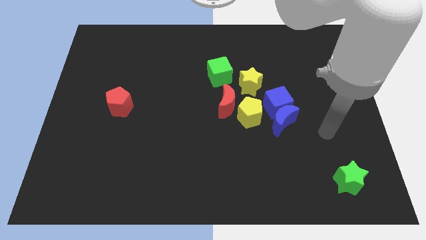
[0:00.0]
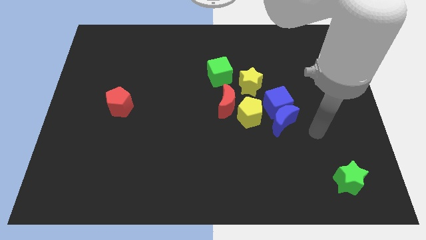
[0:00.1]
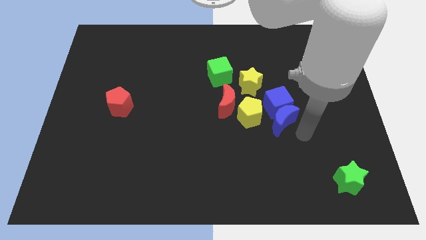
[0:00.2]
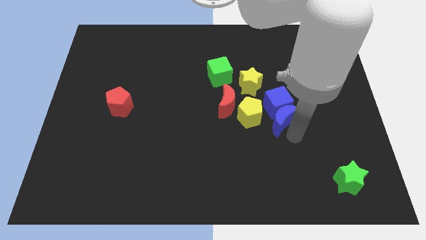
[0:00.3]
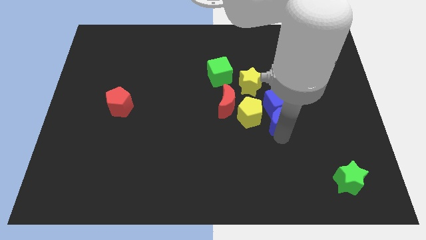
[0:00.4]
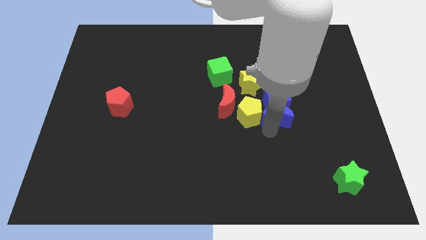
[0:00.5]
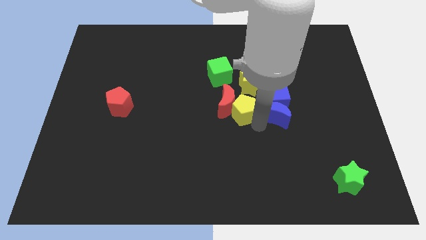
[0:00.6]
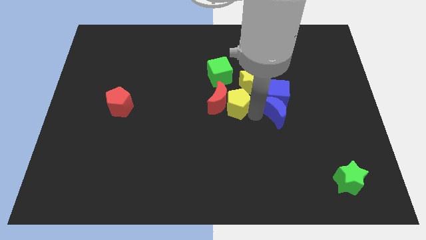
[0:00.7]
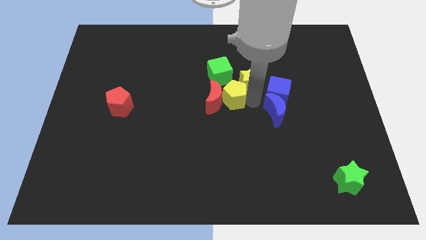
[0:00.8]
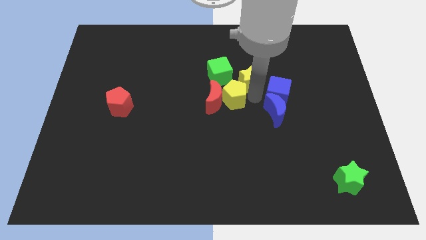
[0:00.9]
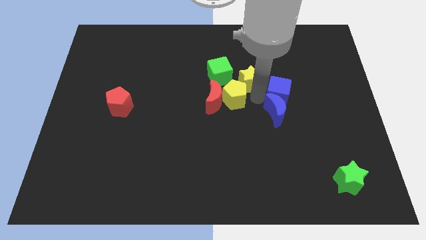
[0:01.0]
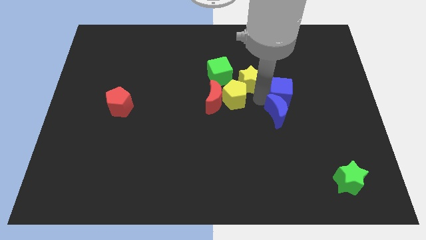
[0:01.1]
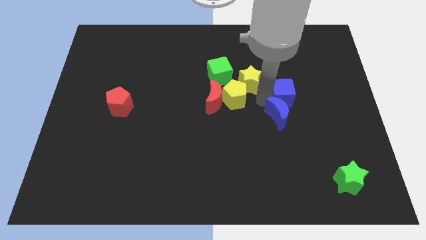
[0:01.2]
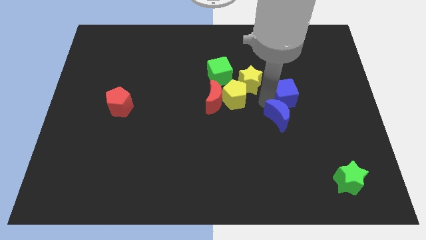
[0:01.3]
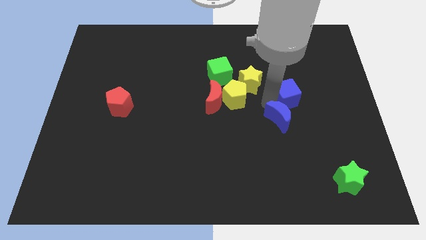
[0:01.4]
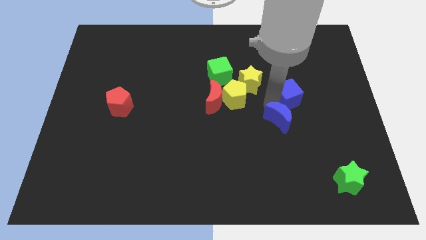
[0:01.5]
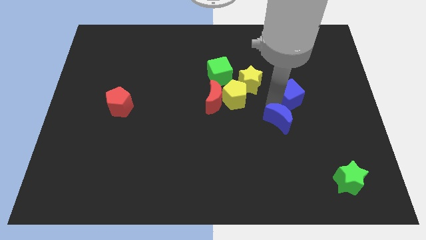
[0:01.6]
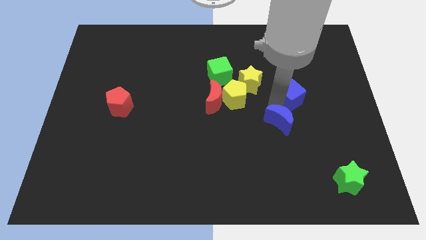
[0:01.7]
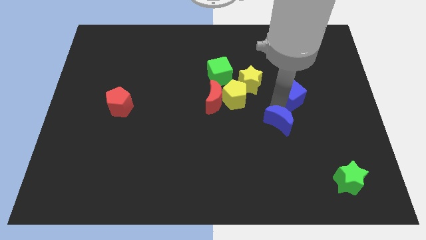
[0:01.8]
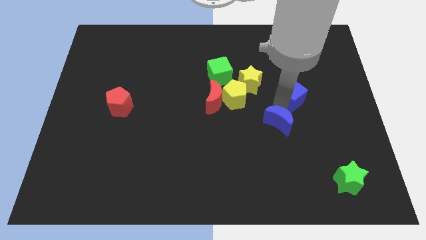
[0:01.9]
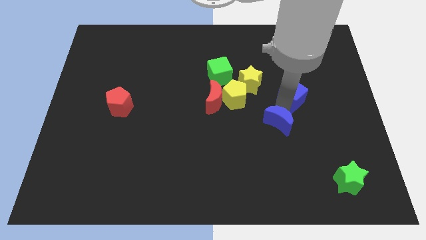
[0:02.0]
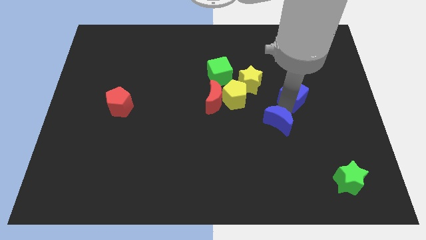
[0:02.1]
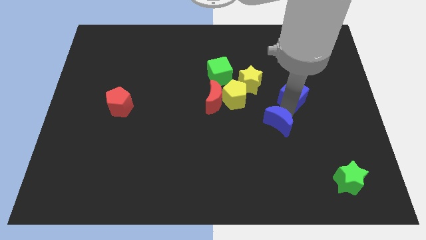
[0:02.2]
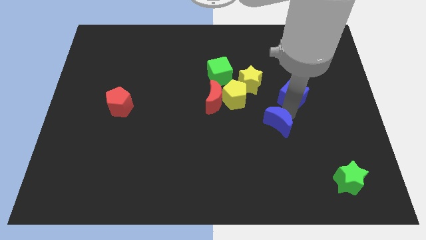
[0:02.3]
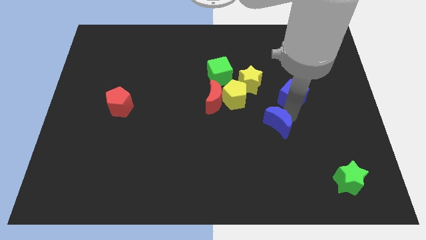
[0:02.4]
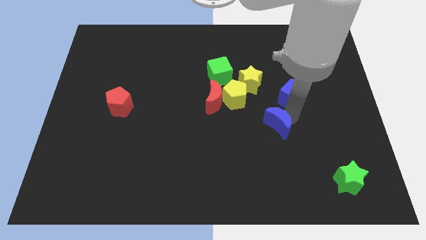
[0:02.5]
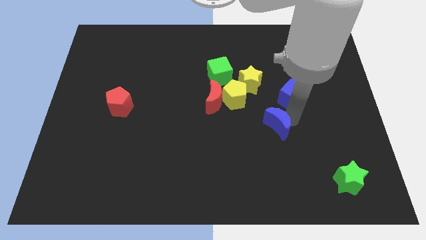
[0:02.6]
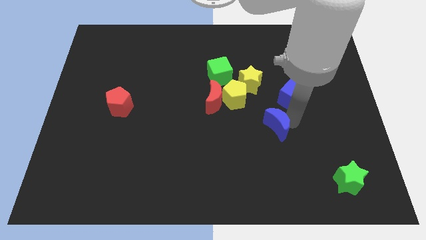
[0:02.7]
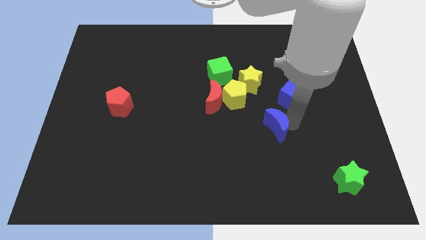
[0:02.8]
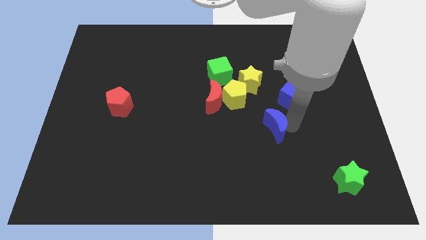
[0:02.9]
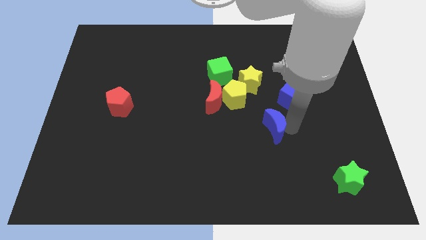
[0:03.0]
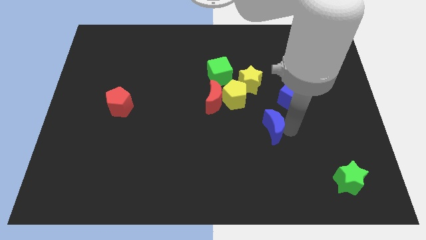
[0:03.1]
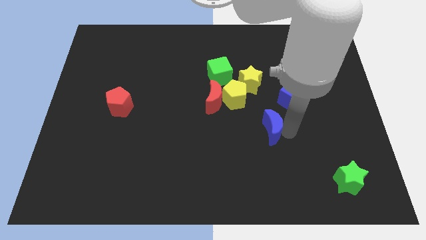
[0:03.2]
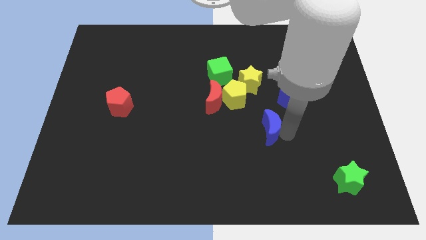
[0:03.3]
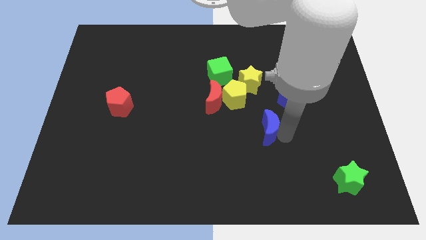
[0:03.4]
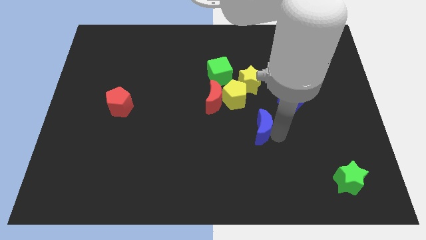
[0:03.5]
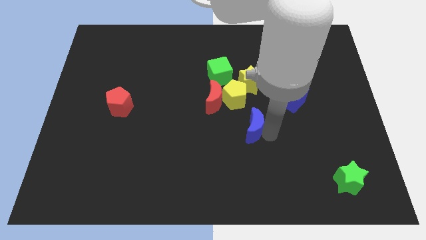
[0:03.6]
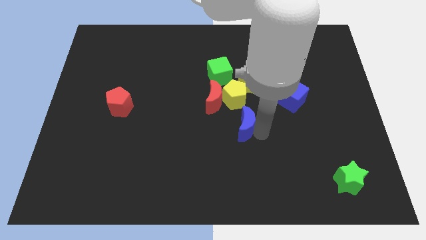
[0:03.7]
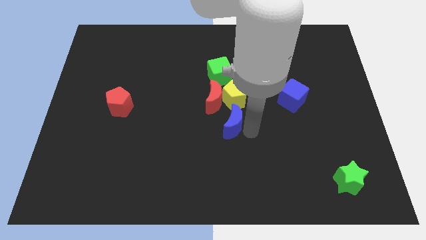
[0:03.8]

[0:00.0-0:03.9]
separate the blue moon from the blue cube and yellow pentagon

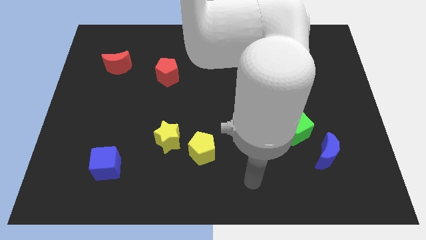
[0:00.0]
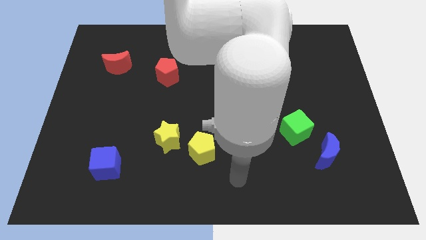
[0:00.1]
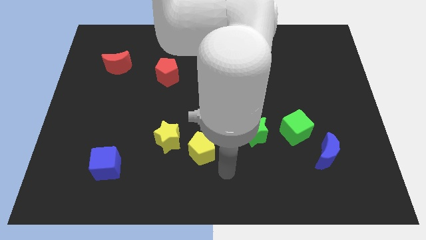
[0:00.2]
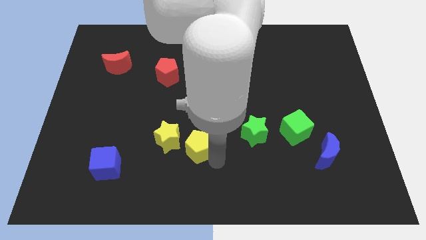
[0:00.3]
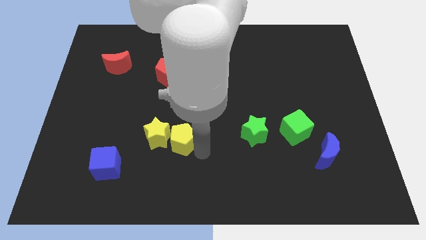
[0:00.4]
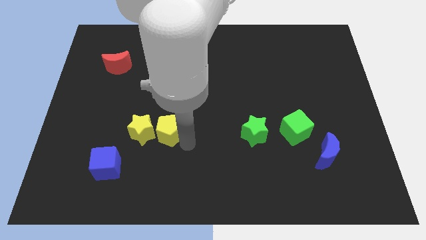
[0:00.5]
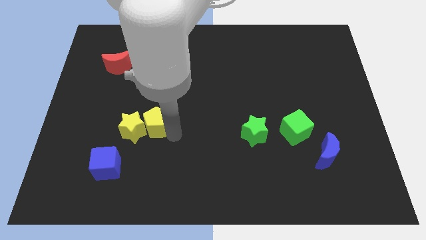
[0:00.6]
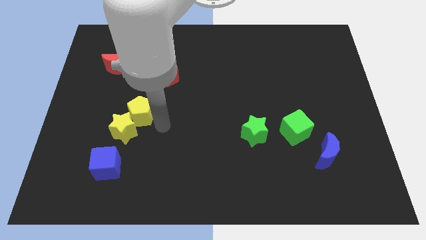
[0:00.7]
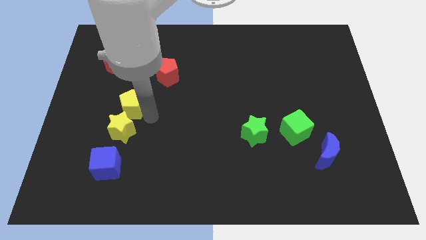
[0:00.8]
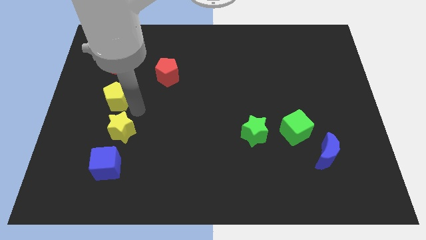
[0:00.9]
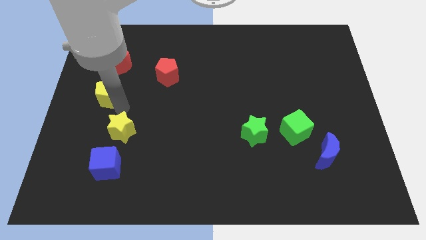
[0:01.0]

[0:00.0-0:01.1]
separate the yellow star from the yellow pentagon

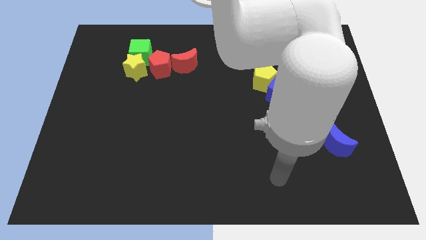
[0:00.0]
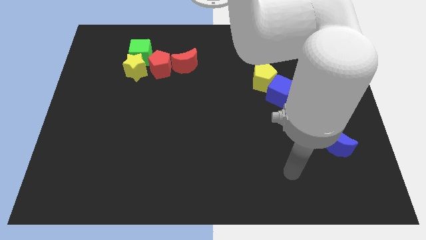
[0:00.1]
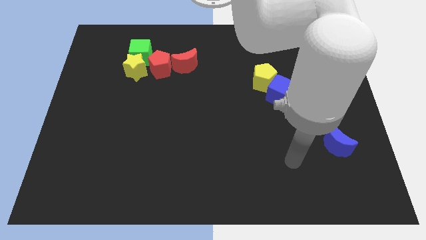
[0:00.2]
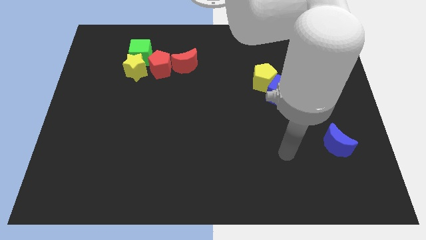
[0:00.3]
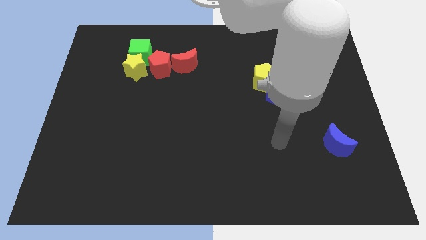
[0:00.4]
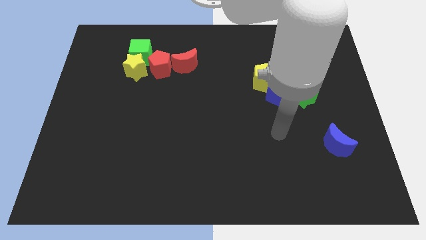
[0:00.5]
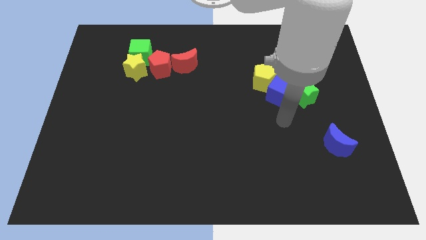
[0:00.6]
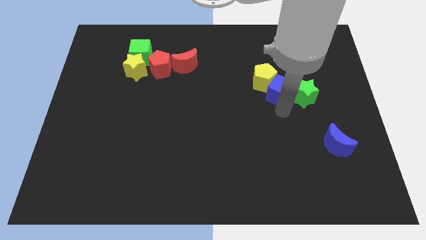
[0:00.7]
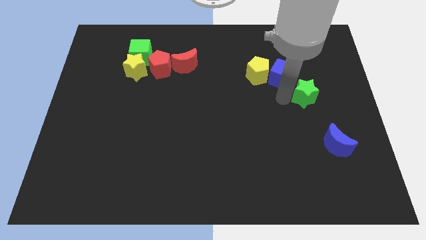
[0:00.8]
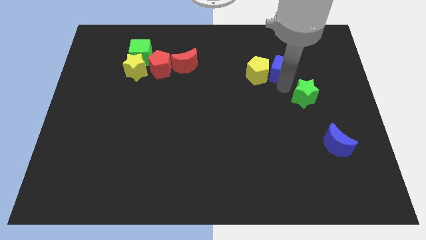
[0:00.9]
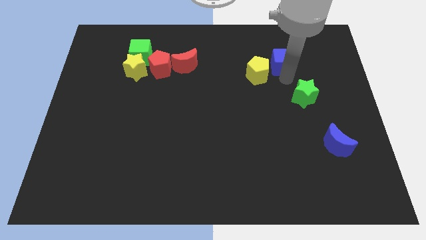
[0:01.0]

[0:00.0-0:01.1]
move the green star away from the blue cube

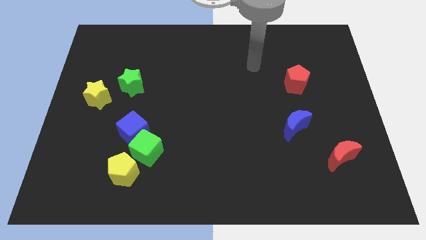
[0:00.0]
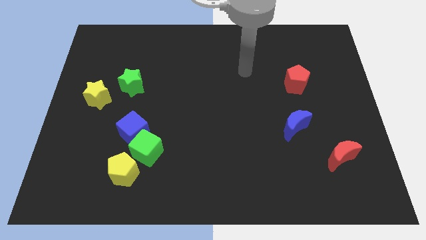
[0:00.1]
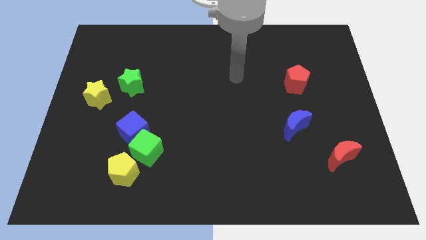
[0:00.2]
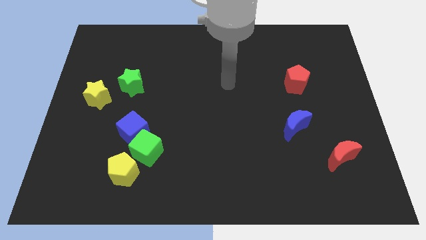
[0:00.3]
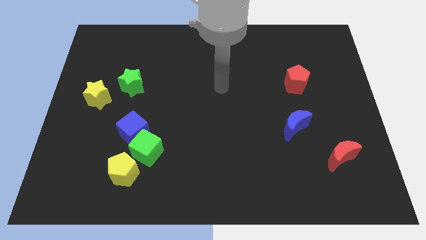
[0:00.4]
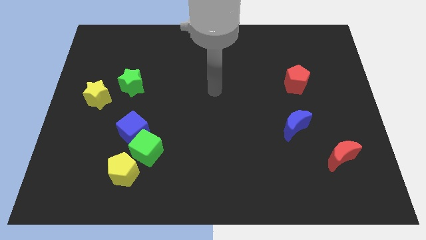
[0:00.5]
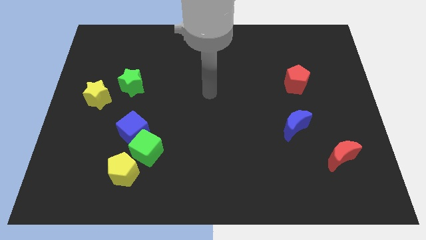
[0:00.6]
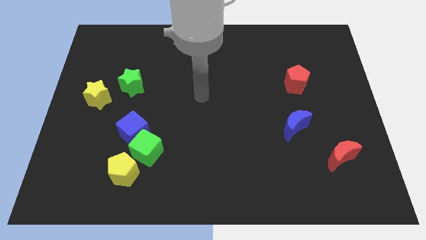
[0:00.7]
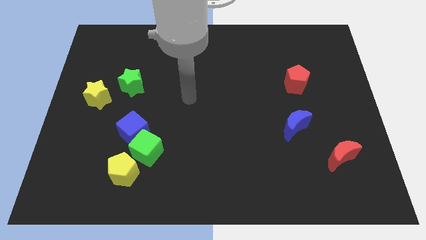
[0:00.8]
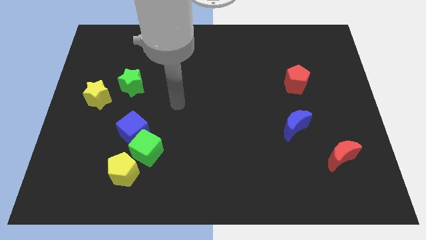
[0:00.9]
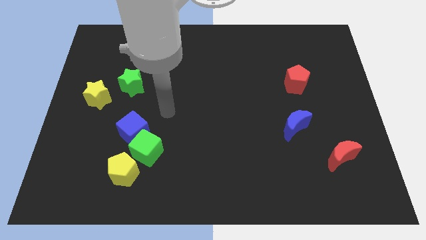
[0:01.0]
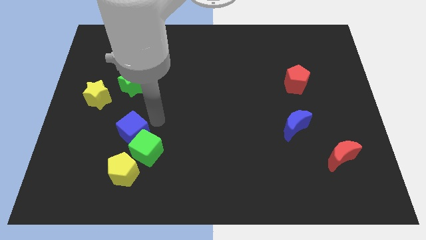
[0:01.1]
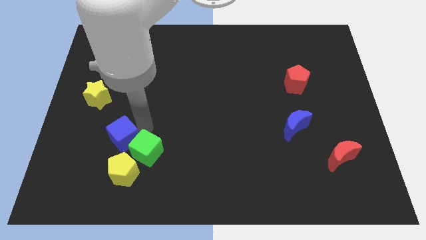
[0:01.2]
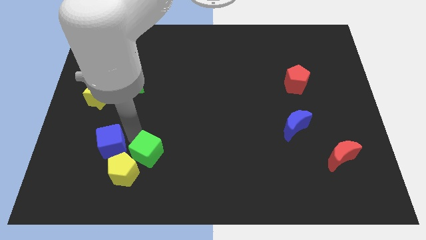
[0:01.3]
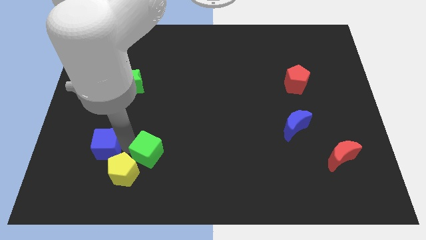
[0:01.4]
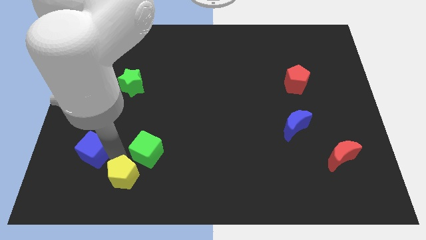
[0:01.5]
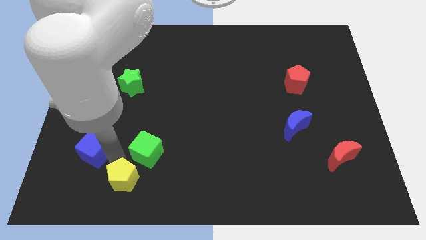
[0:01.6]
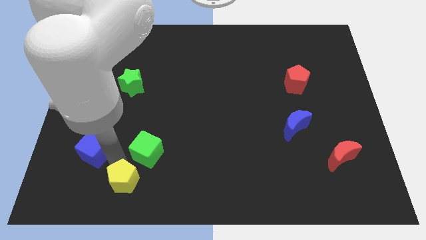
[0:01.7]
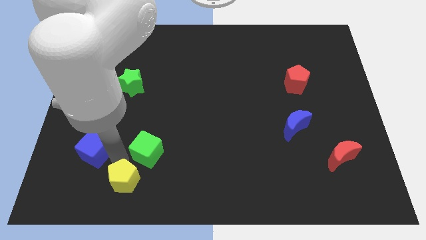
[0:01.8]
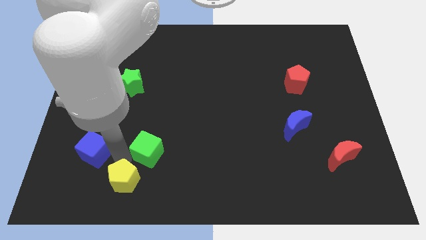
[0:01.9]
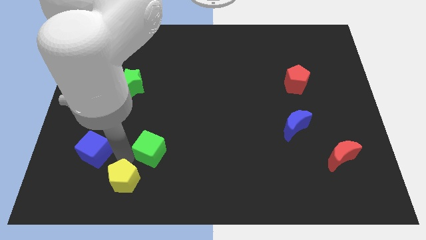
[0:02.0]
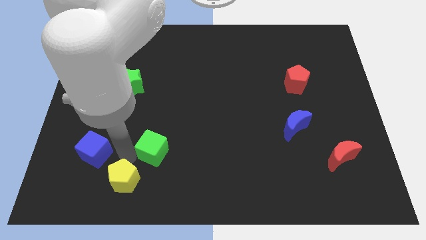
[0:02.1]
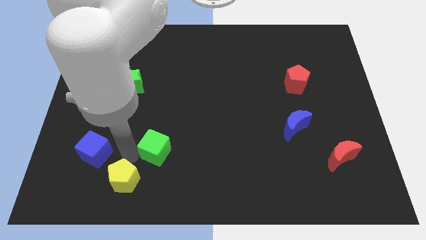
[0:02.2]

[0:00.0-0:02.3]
separate the green cube from the blue cube and yellow pentagon

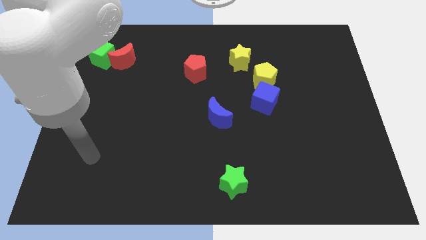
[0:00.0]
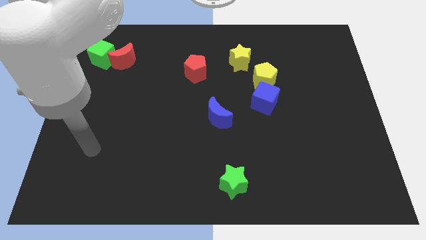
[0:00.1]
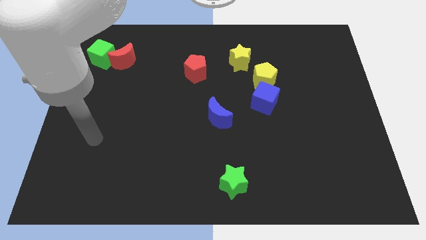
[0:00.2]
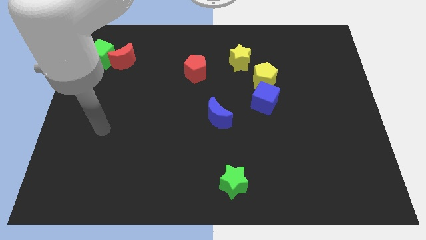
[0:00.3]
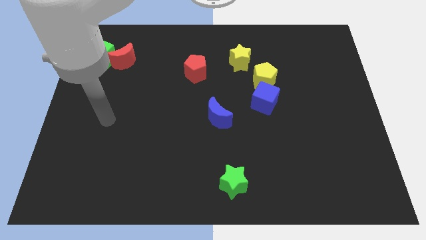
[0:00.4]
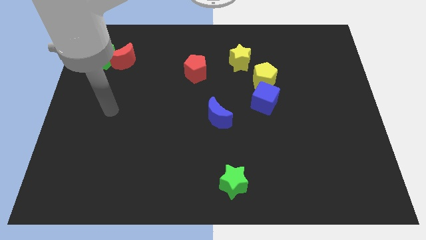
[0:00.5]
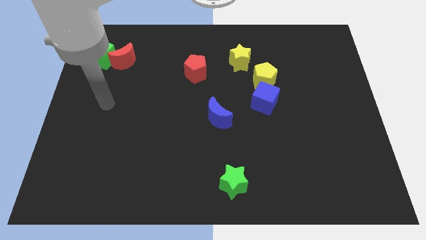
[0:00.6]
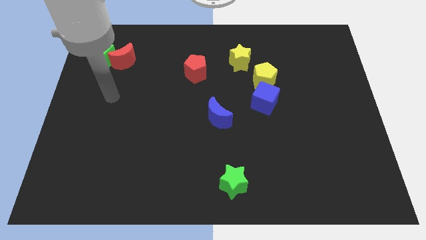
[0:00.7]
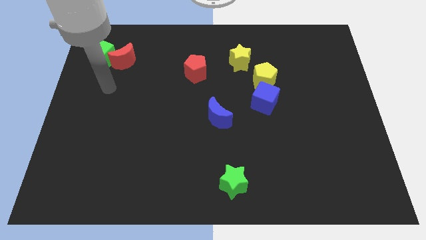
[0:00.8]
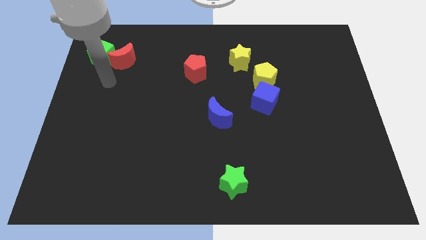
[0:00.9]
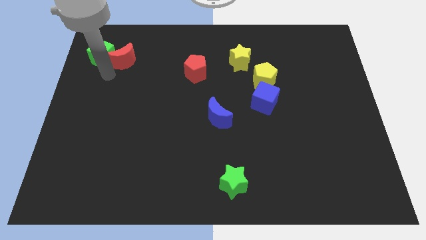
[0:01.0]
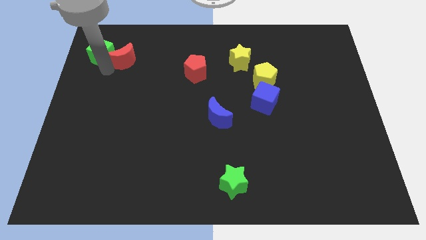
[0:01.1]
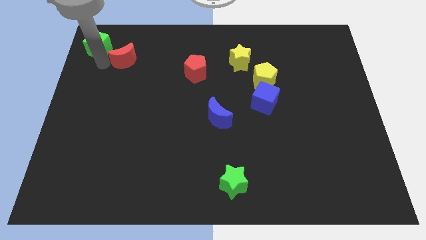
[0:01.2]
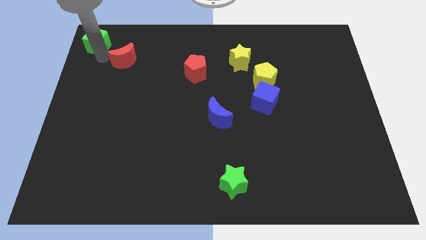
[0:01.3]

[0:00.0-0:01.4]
move the red moon away from the green cube
